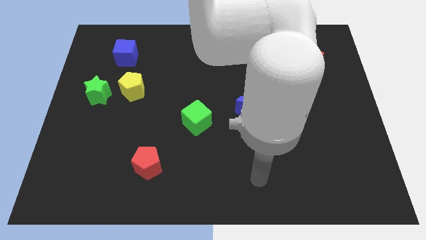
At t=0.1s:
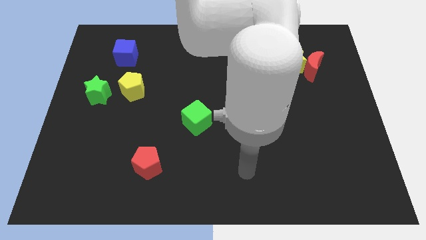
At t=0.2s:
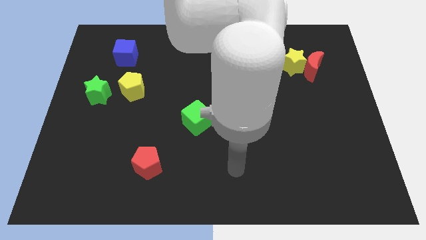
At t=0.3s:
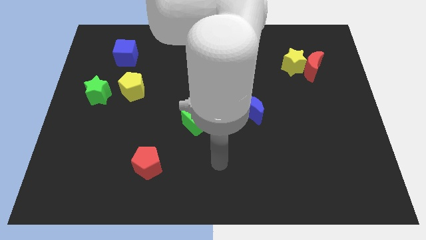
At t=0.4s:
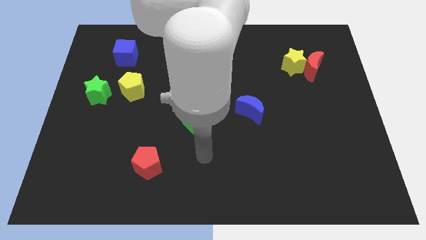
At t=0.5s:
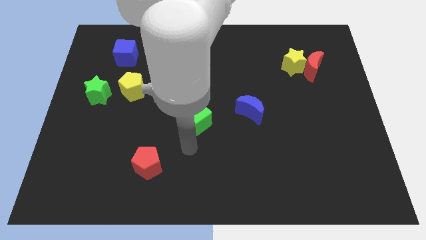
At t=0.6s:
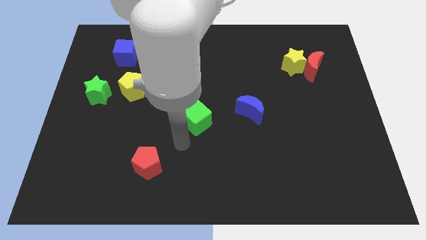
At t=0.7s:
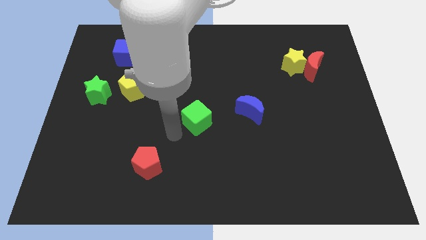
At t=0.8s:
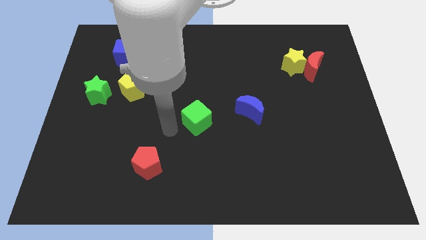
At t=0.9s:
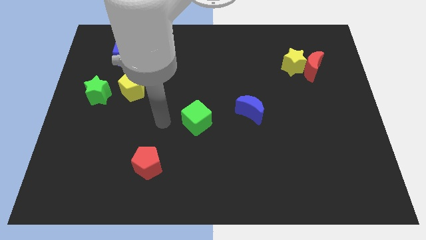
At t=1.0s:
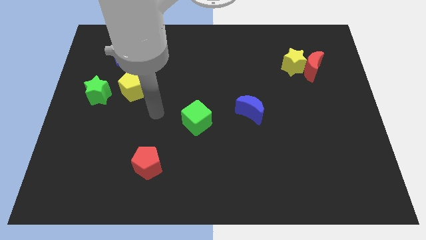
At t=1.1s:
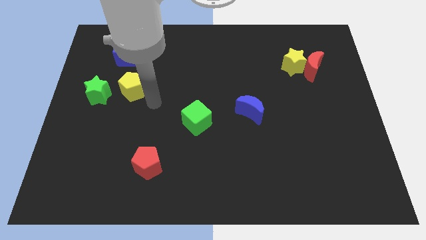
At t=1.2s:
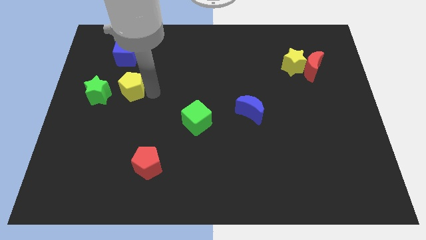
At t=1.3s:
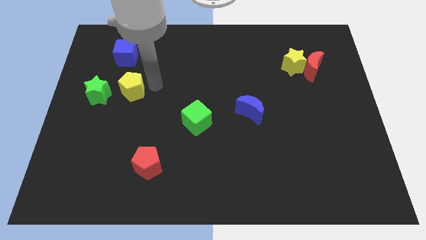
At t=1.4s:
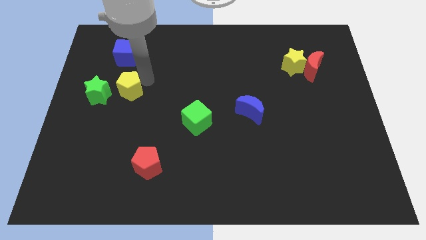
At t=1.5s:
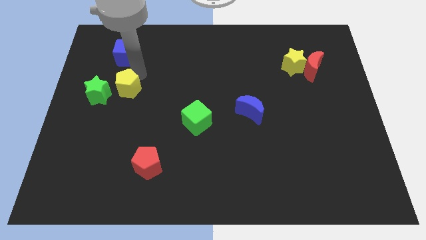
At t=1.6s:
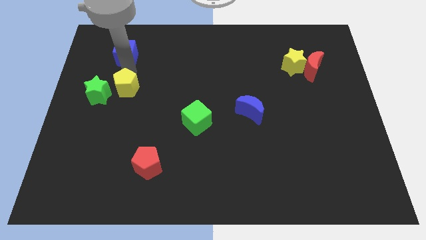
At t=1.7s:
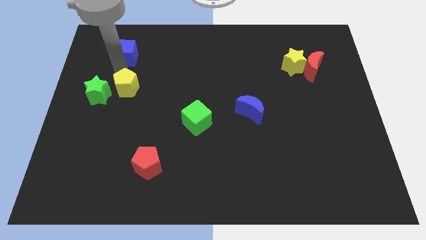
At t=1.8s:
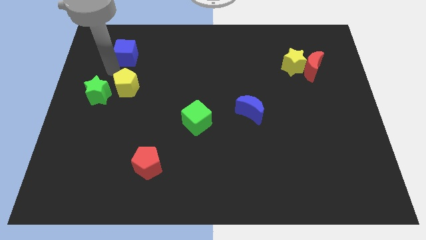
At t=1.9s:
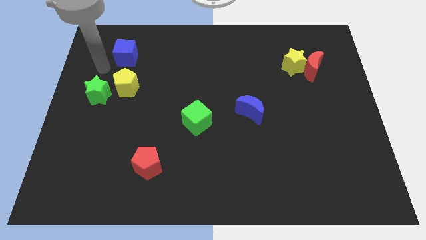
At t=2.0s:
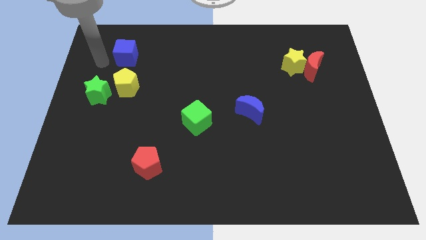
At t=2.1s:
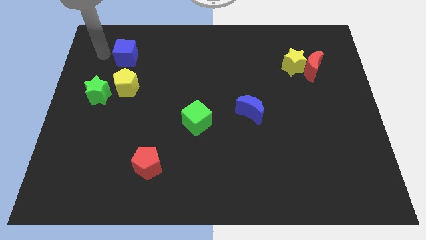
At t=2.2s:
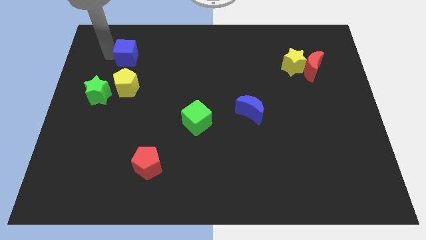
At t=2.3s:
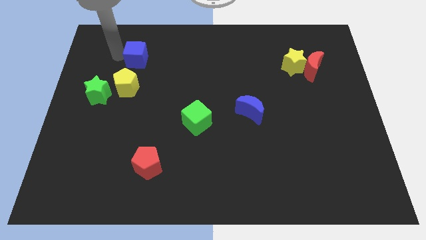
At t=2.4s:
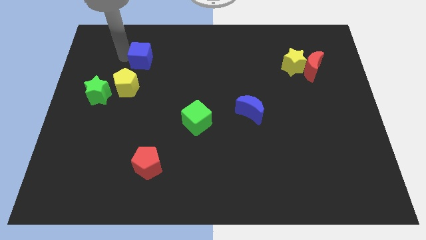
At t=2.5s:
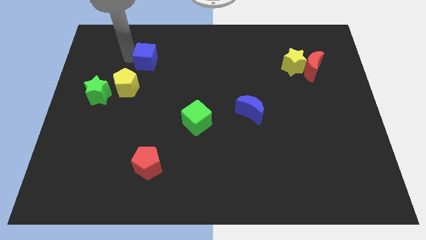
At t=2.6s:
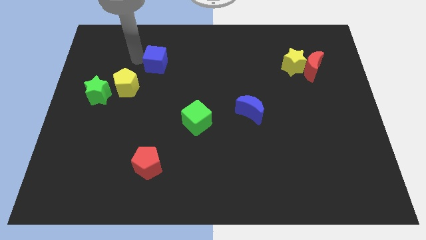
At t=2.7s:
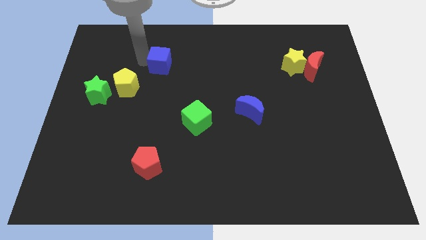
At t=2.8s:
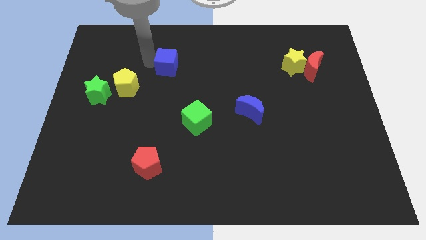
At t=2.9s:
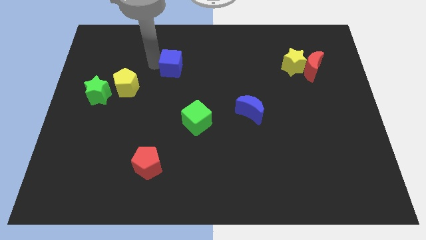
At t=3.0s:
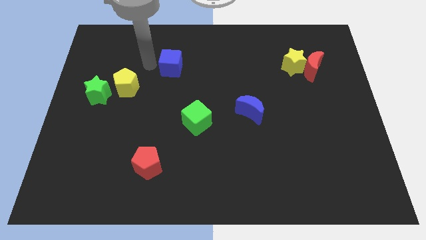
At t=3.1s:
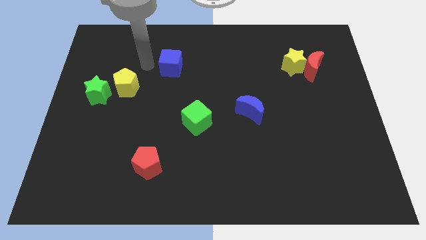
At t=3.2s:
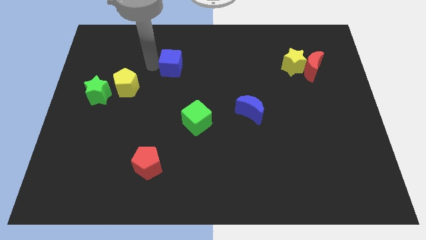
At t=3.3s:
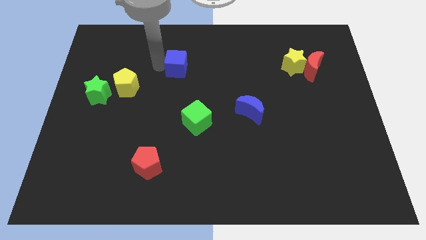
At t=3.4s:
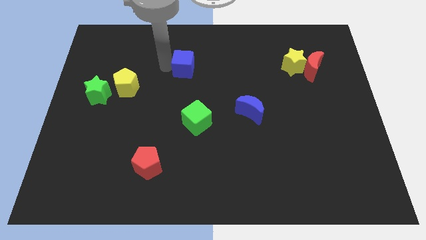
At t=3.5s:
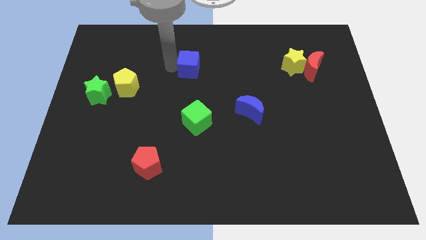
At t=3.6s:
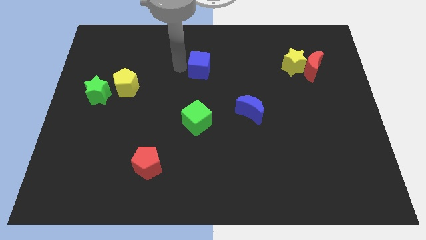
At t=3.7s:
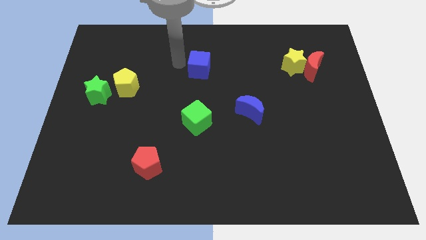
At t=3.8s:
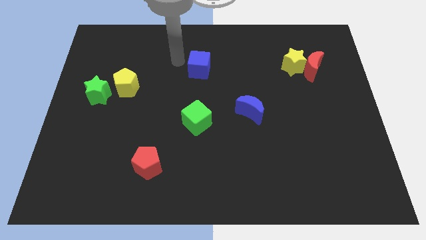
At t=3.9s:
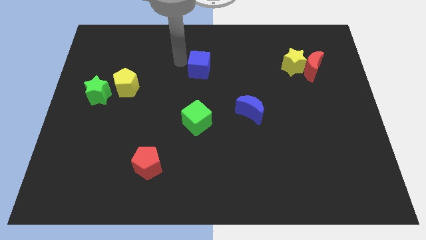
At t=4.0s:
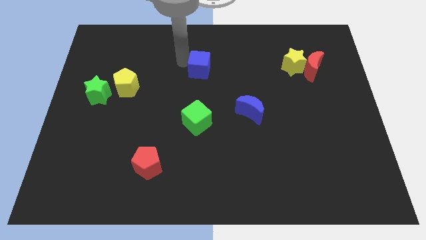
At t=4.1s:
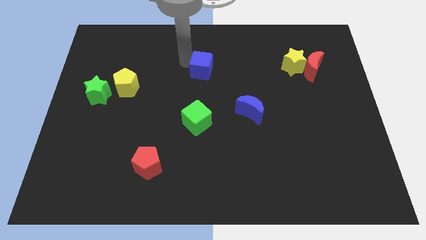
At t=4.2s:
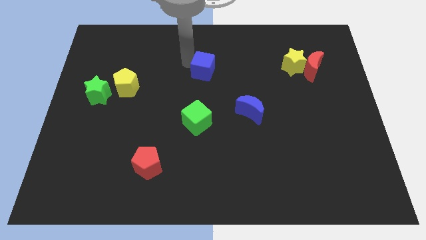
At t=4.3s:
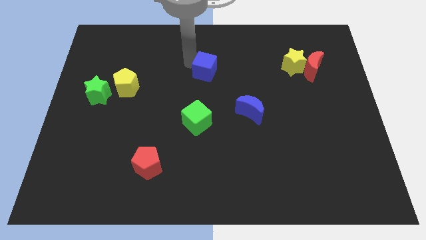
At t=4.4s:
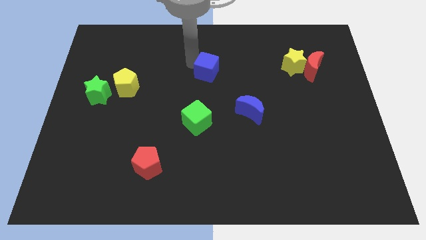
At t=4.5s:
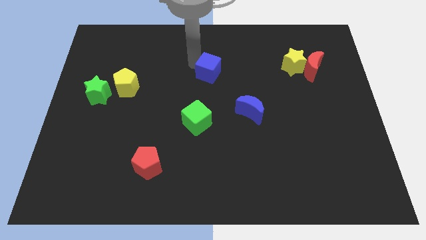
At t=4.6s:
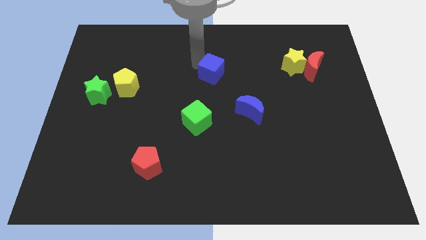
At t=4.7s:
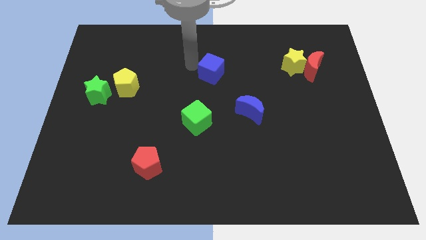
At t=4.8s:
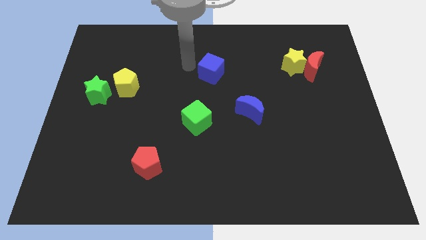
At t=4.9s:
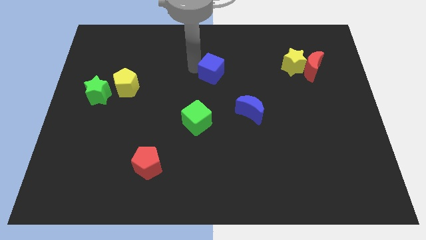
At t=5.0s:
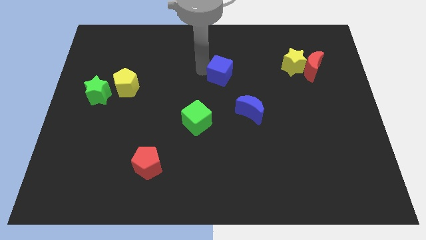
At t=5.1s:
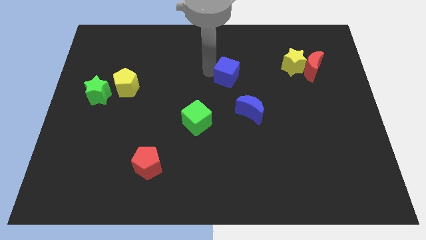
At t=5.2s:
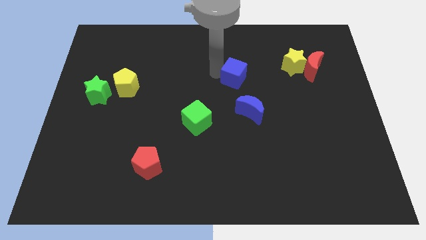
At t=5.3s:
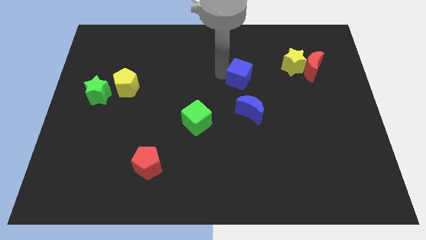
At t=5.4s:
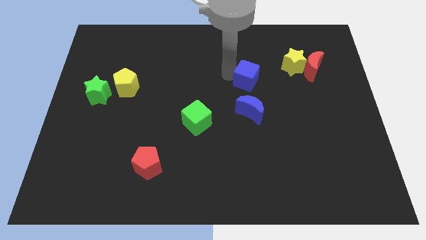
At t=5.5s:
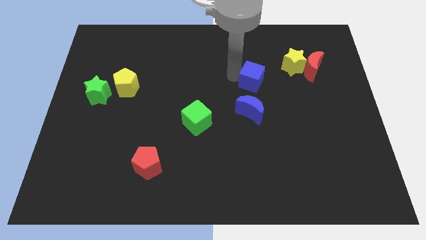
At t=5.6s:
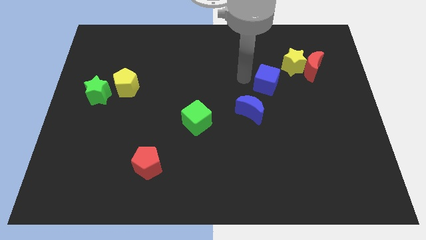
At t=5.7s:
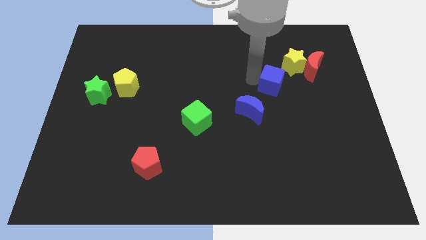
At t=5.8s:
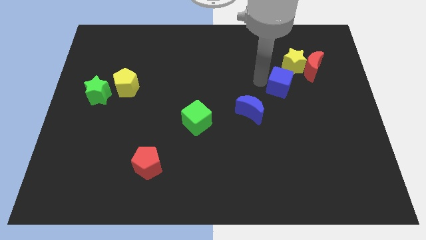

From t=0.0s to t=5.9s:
push the blue cube to the bottom of the yellow star

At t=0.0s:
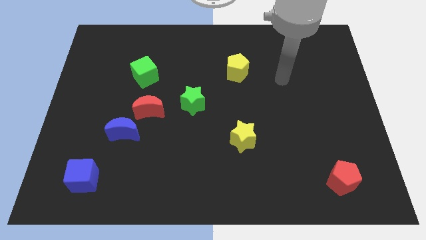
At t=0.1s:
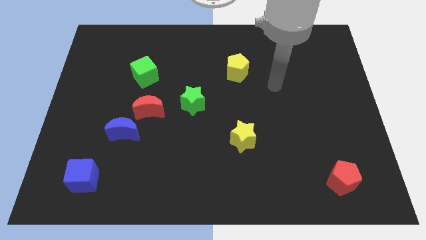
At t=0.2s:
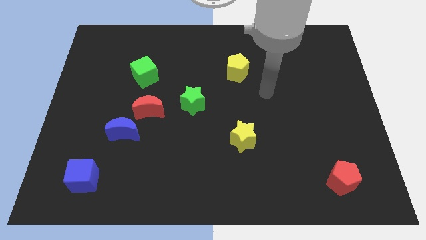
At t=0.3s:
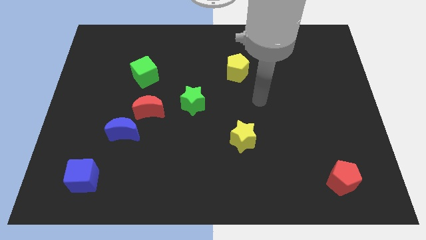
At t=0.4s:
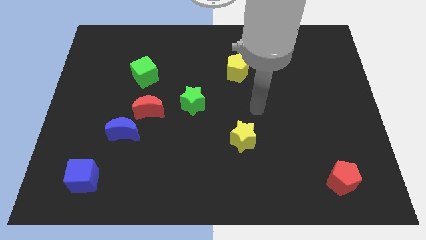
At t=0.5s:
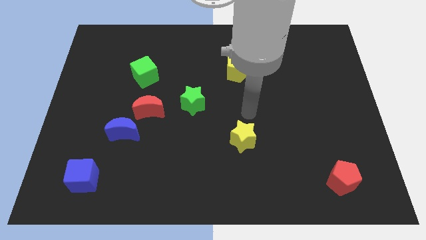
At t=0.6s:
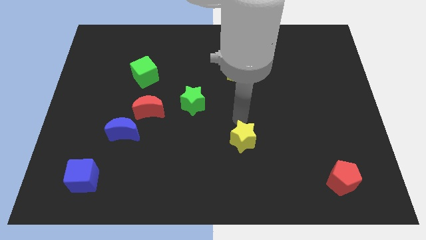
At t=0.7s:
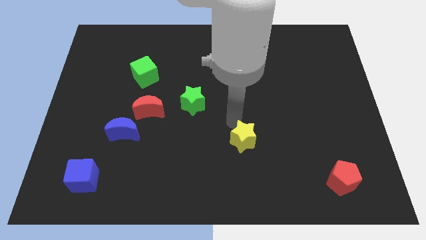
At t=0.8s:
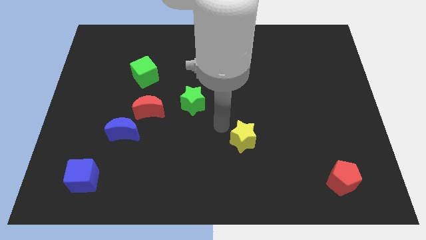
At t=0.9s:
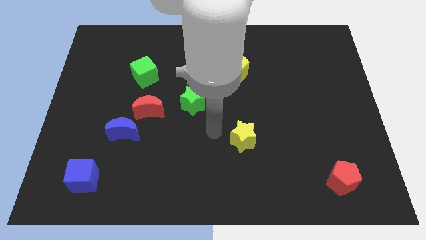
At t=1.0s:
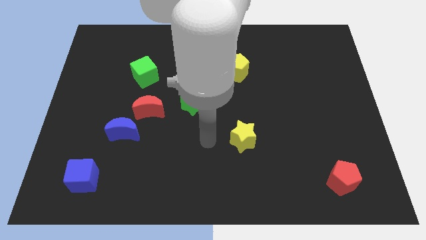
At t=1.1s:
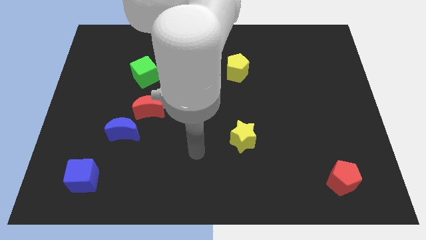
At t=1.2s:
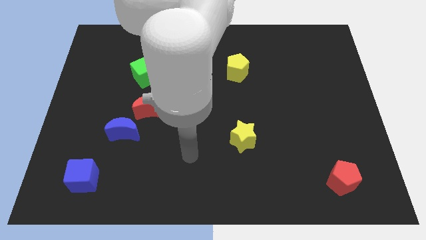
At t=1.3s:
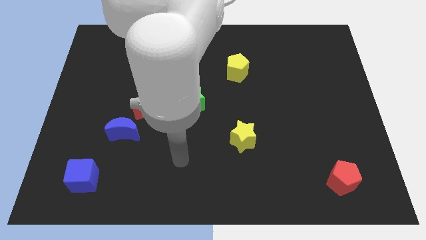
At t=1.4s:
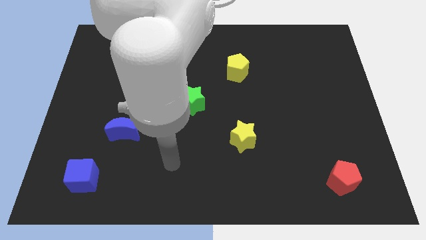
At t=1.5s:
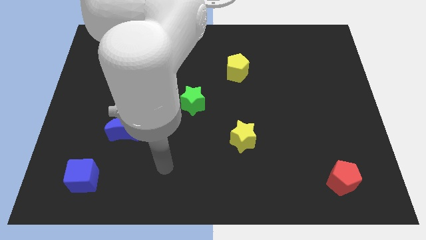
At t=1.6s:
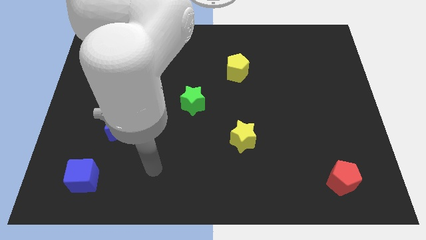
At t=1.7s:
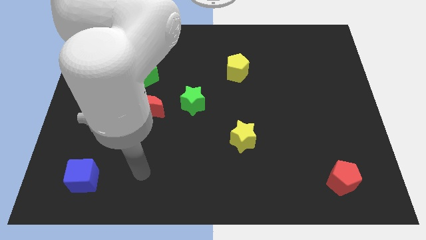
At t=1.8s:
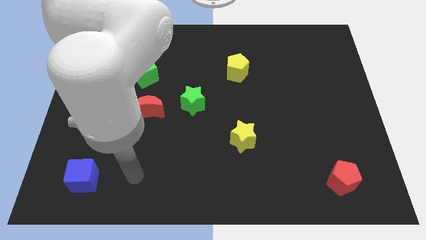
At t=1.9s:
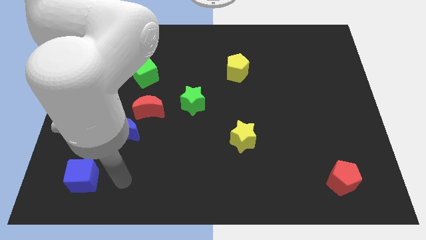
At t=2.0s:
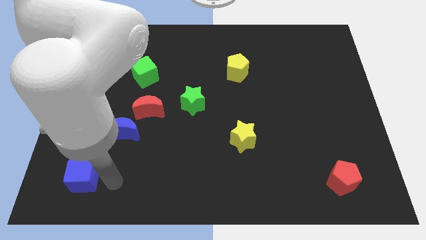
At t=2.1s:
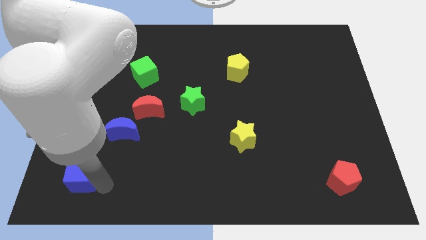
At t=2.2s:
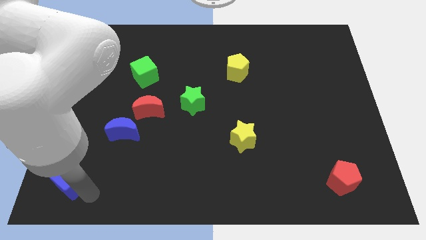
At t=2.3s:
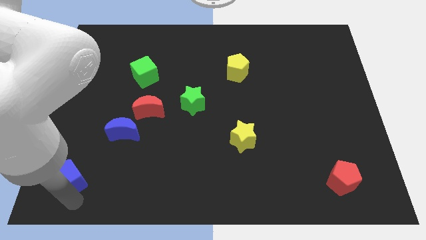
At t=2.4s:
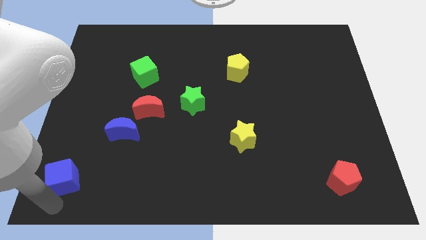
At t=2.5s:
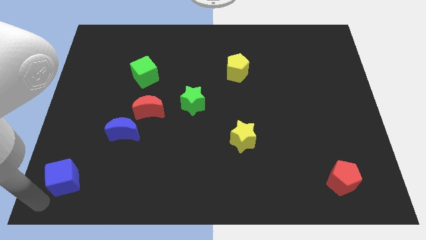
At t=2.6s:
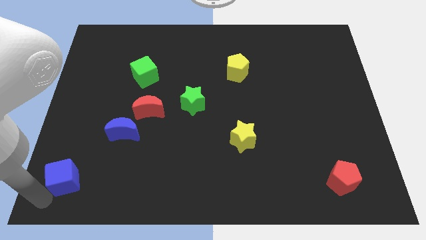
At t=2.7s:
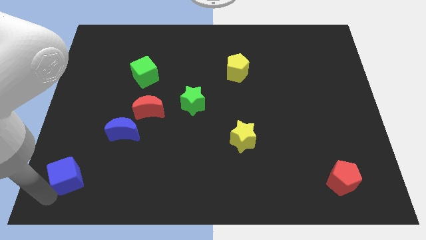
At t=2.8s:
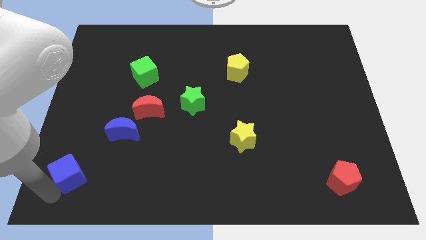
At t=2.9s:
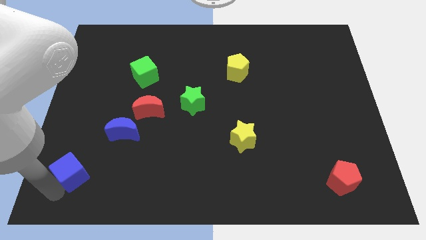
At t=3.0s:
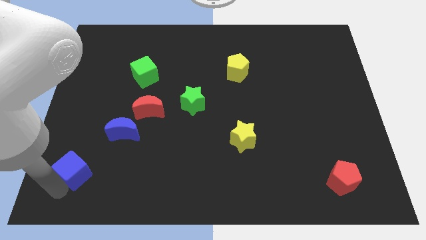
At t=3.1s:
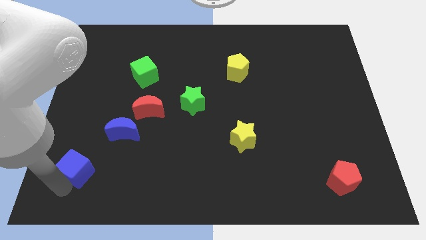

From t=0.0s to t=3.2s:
slide the blue cube diagonally down and to the left of the blue moon
